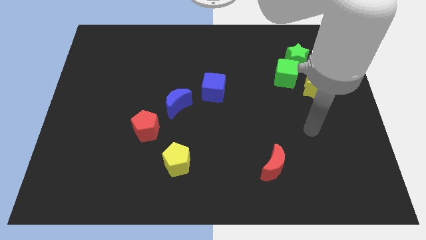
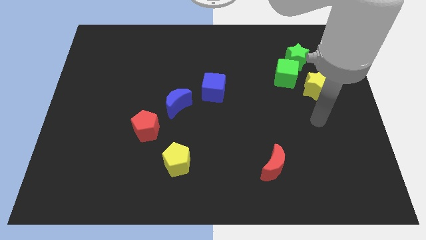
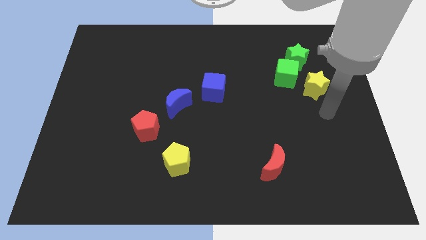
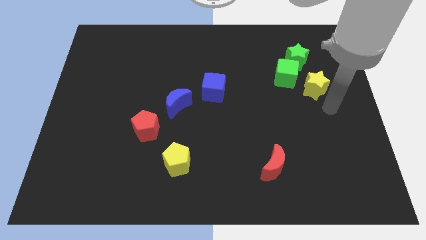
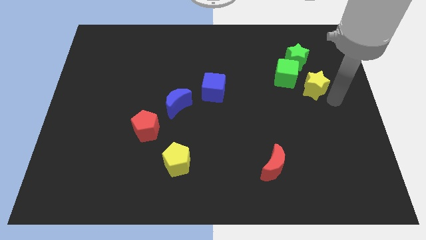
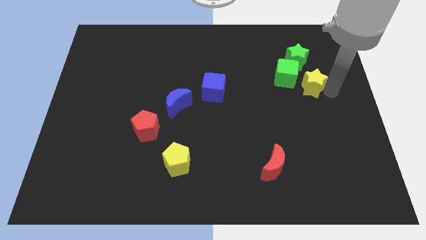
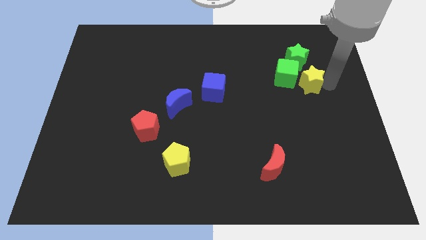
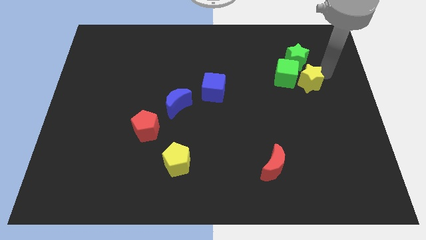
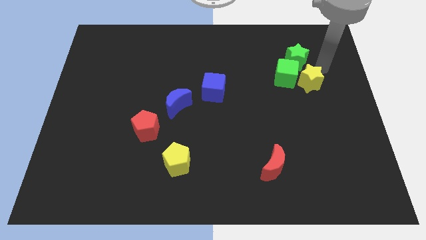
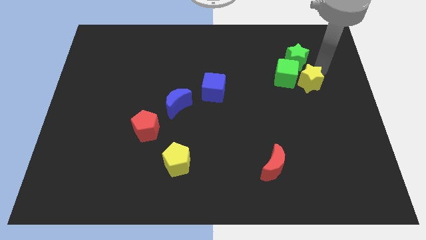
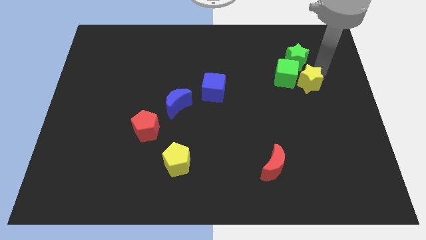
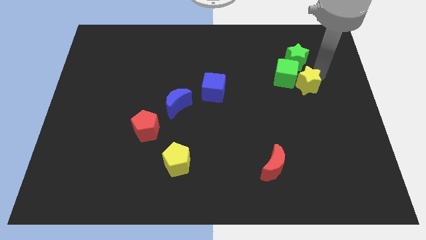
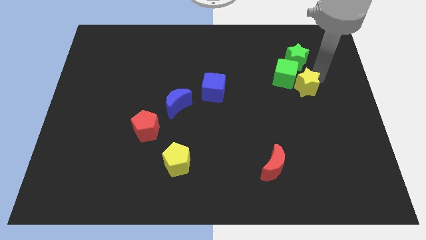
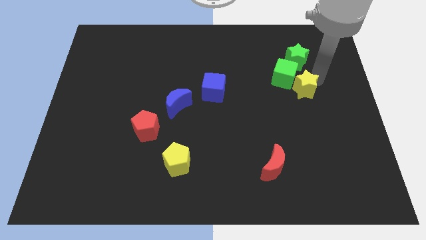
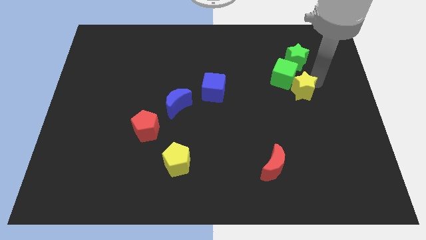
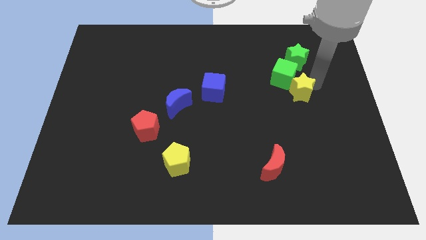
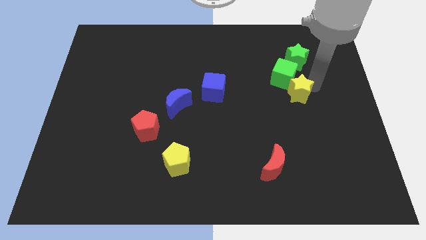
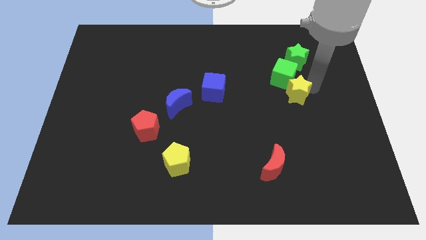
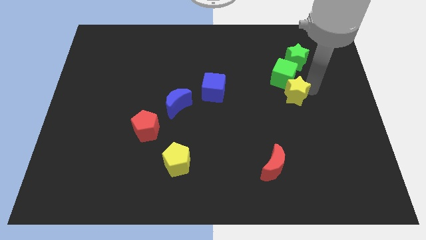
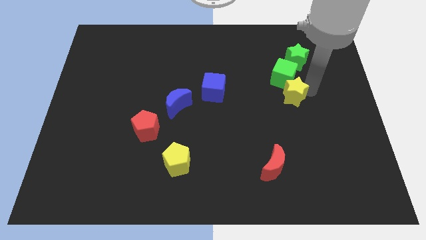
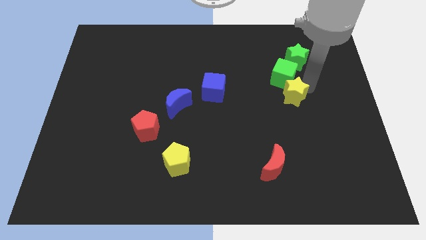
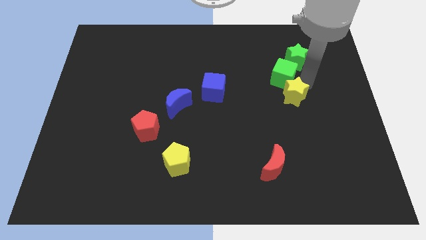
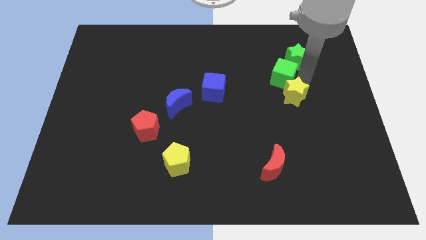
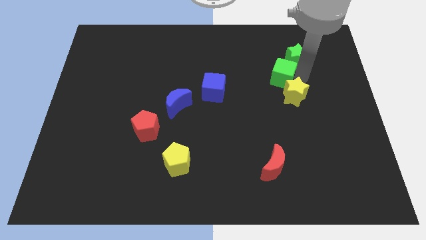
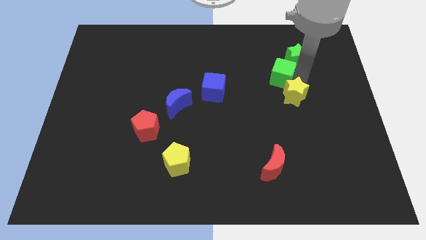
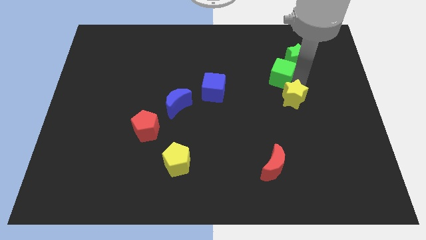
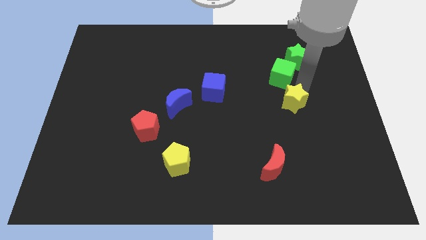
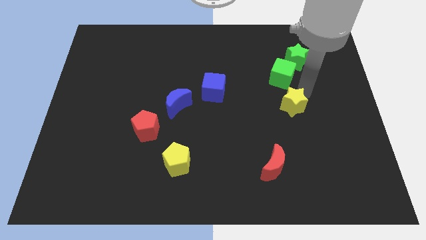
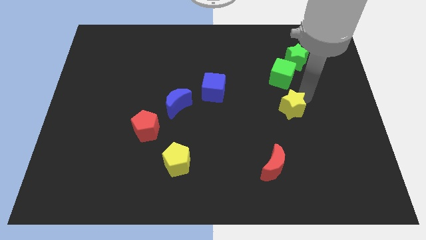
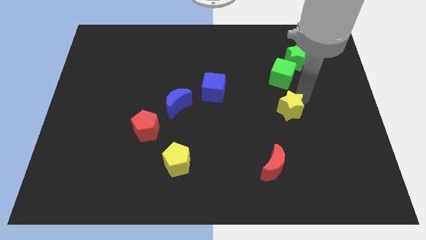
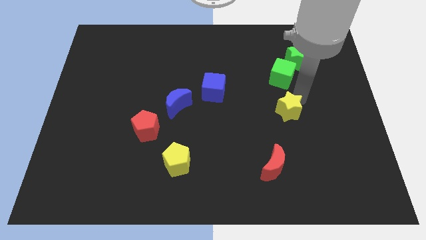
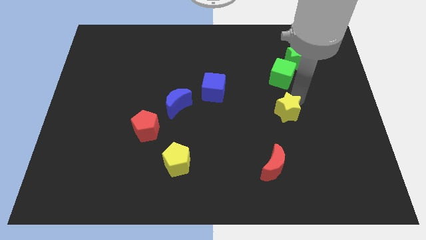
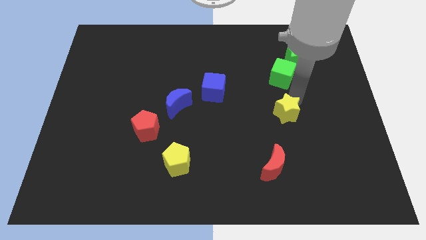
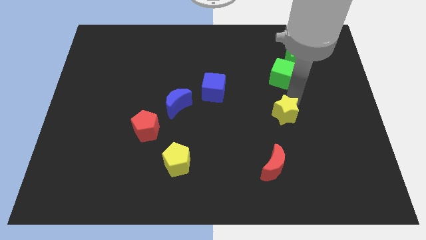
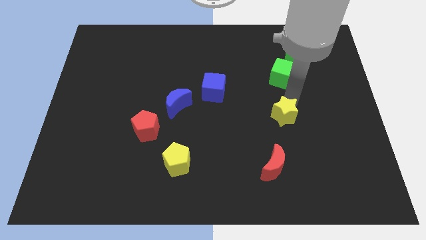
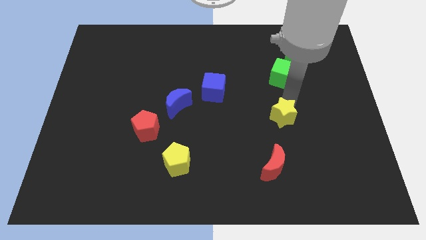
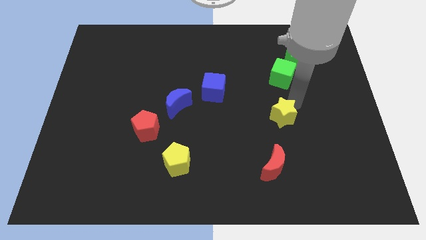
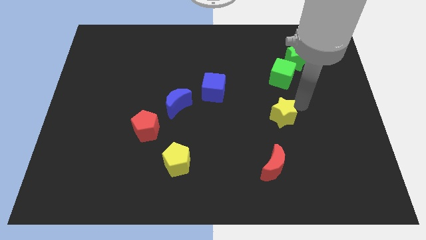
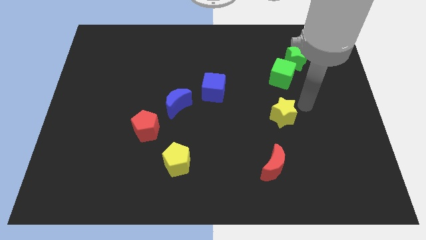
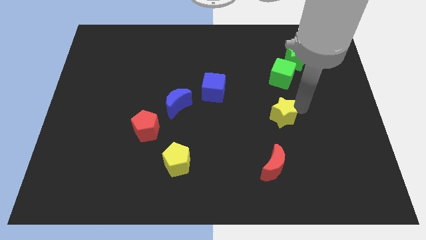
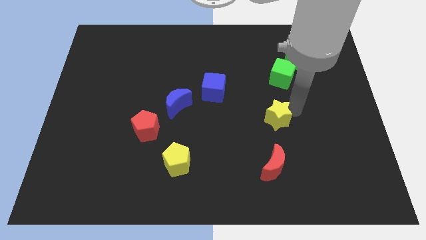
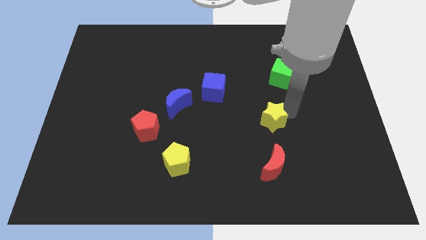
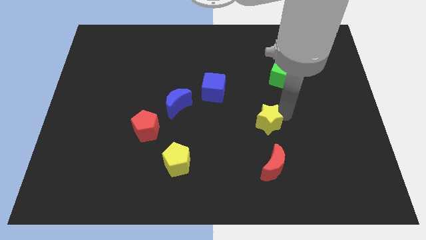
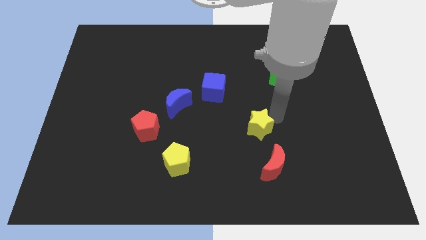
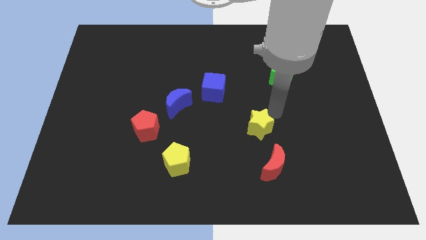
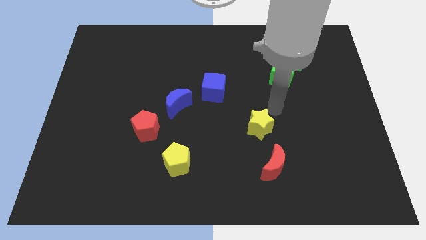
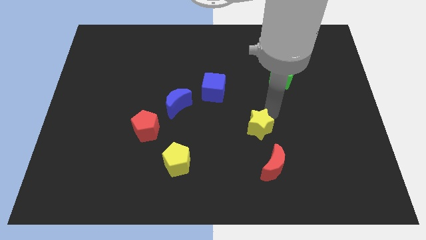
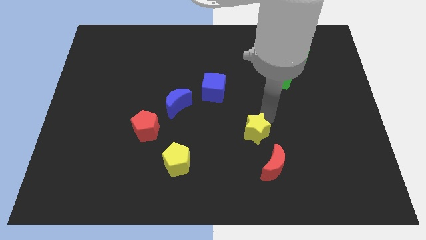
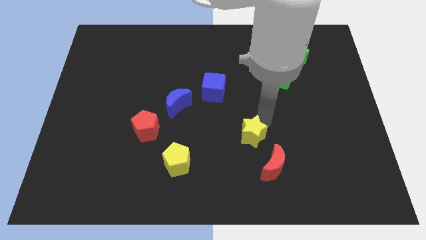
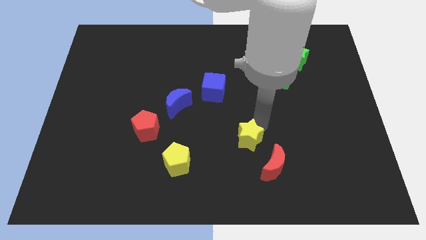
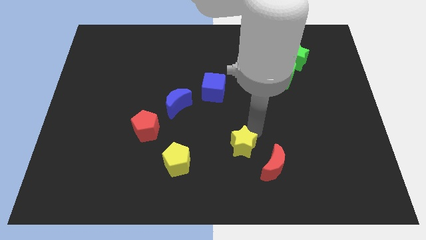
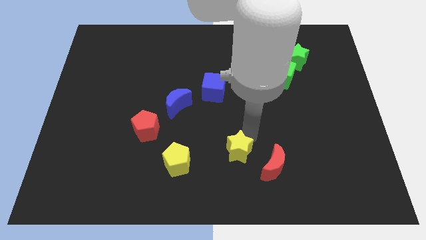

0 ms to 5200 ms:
put the yellow star to the left of the red moon

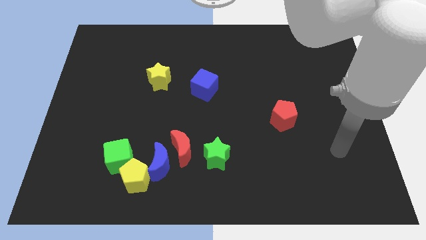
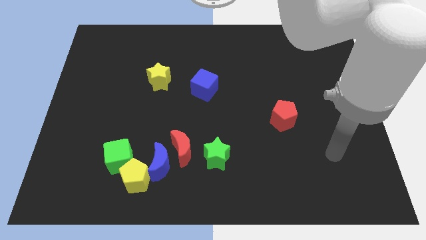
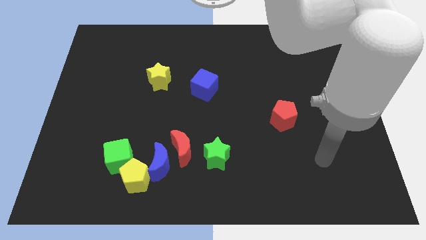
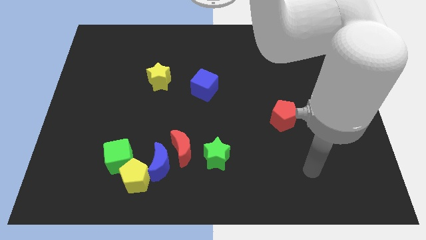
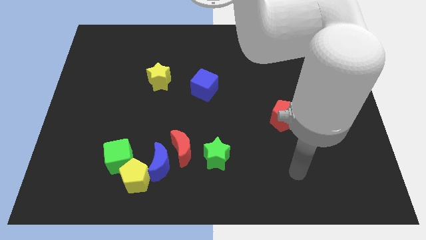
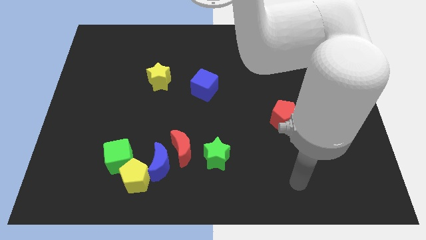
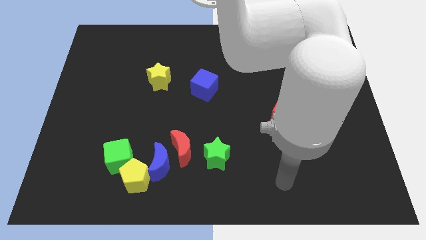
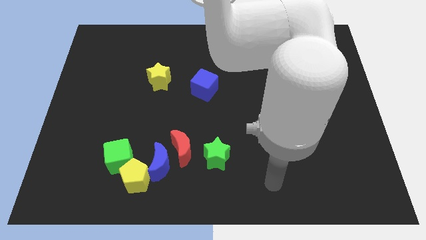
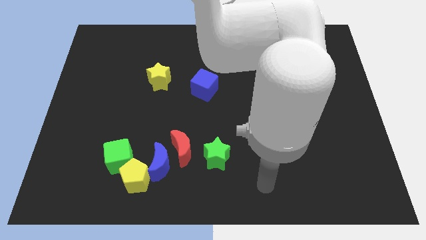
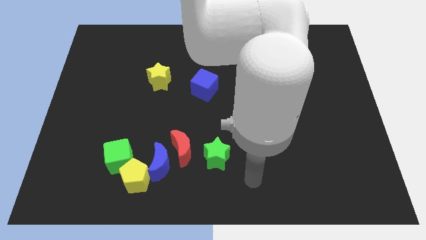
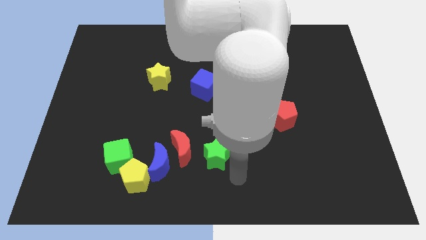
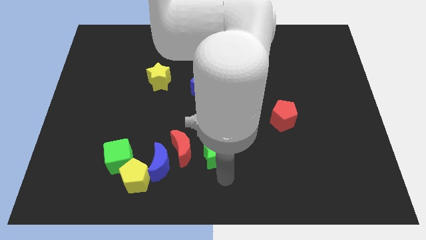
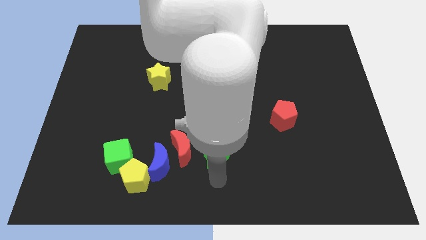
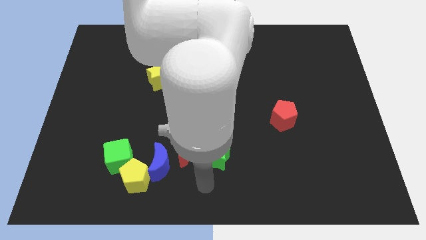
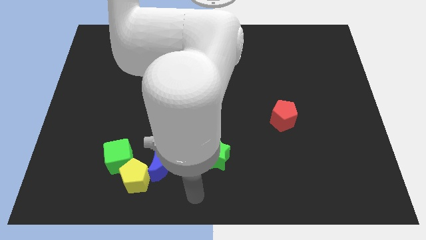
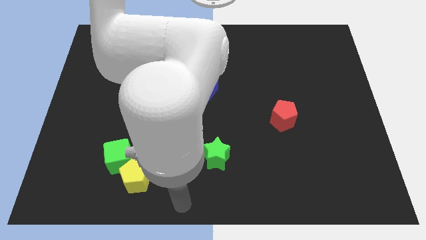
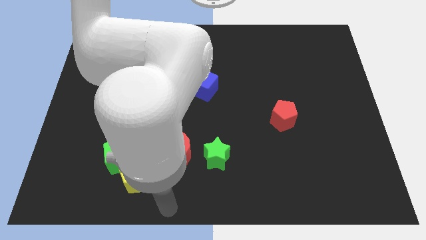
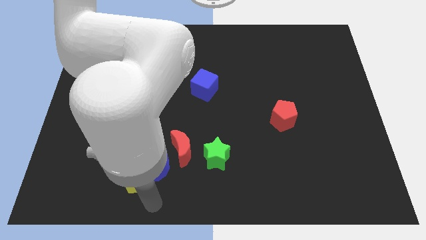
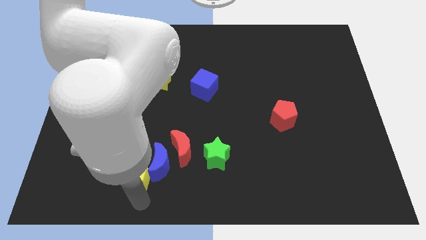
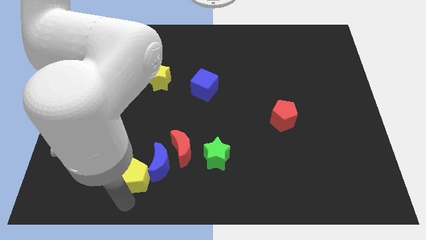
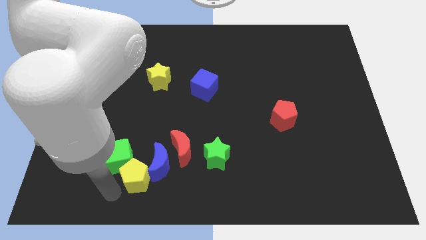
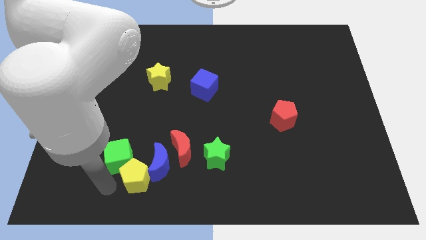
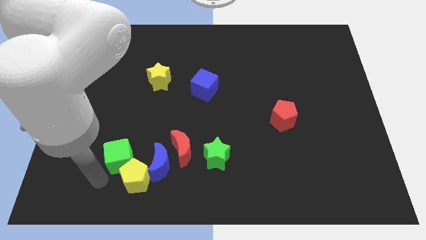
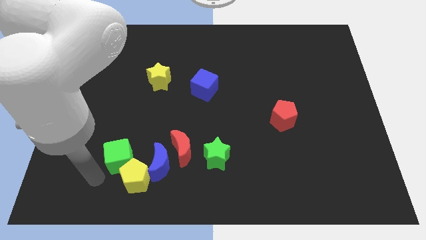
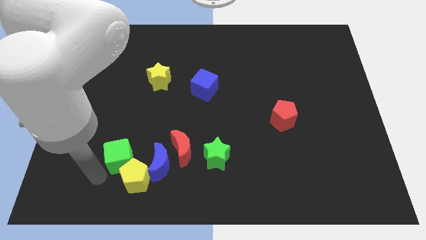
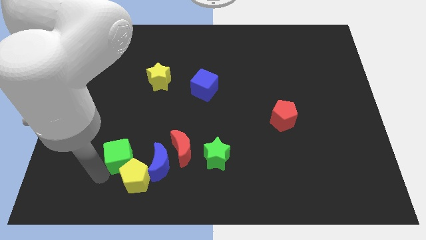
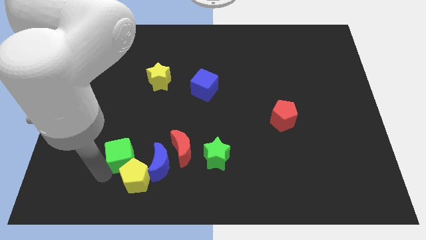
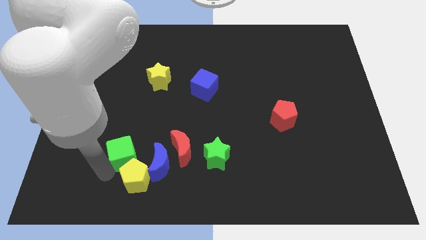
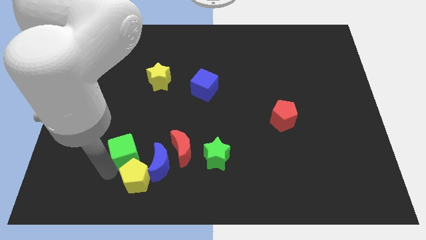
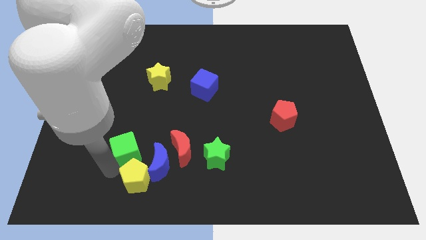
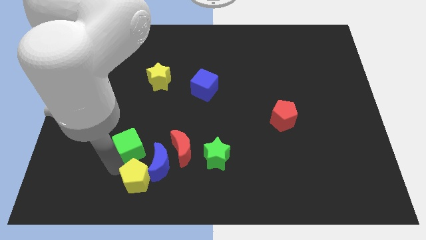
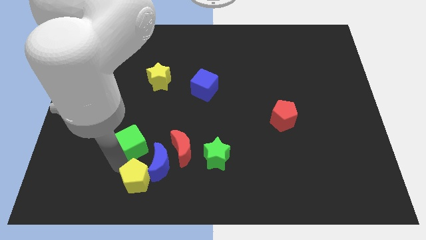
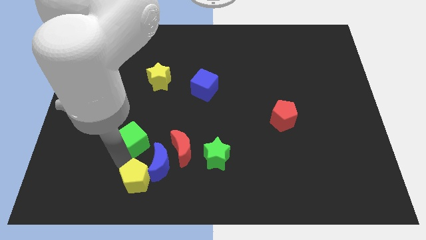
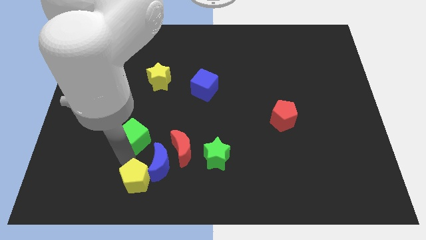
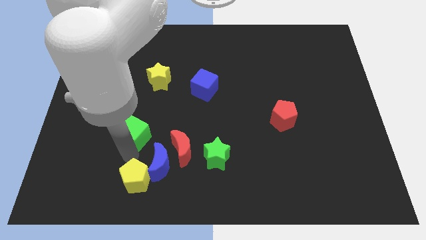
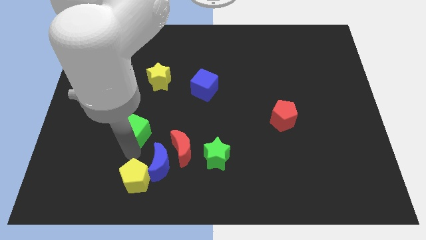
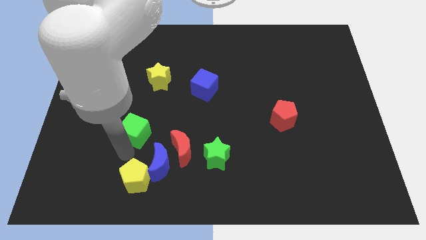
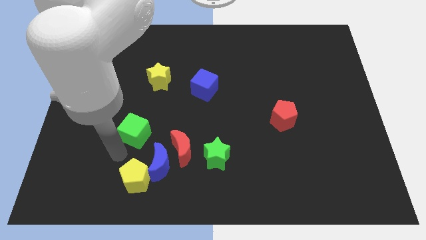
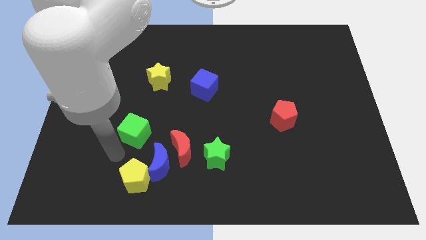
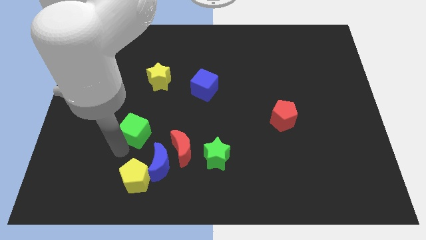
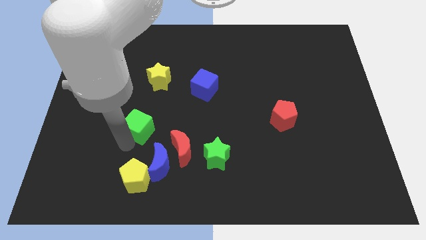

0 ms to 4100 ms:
push the green cube to the bottom side of the yellow star
